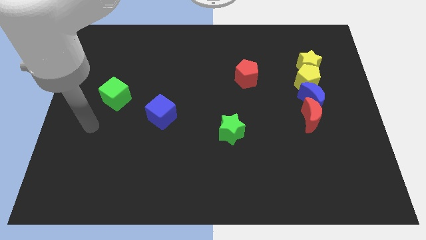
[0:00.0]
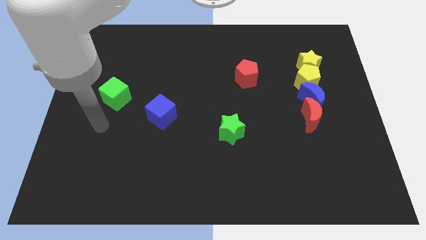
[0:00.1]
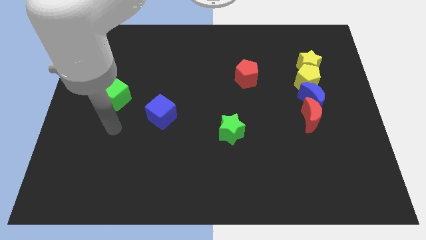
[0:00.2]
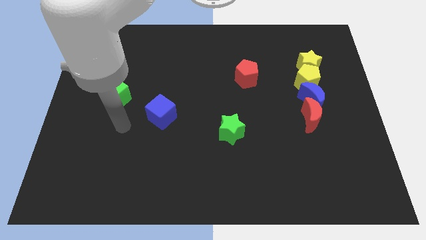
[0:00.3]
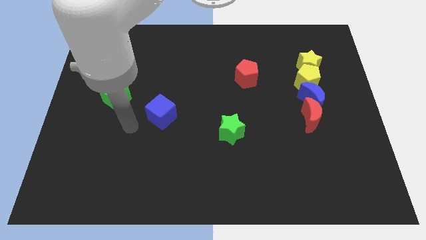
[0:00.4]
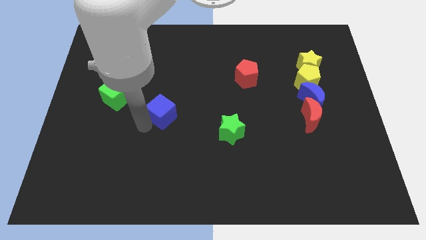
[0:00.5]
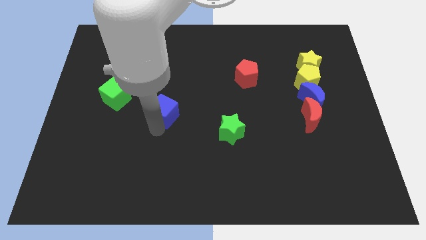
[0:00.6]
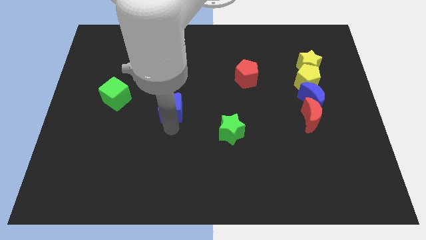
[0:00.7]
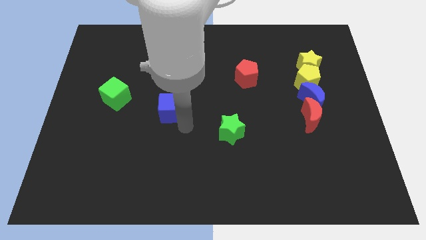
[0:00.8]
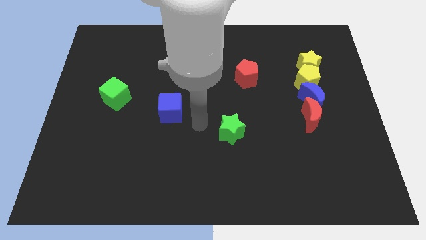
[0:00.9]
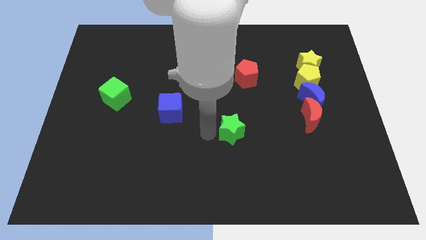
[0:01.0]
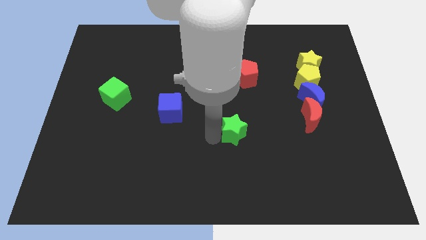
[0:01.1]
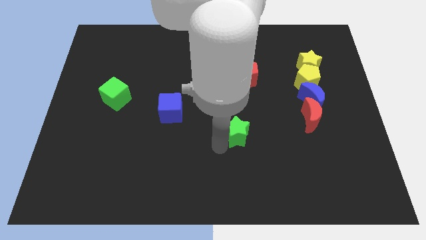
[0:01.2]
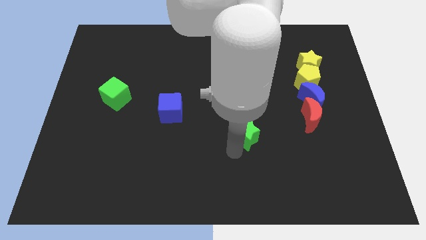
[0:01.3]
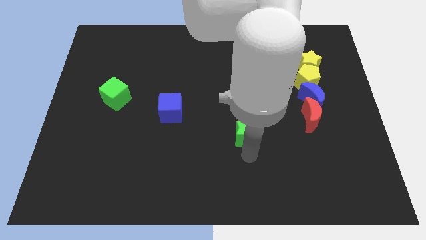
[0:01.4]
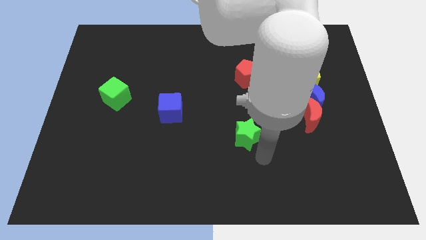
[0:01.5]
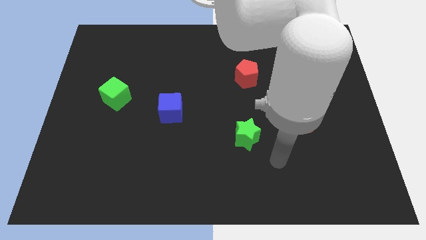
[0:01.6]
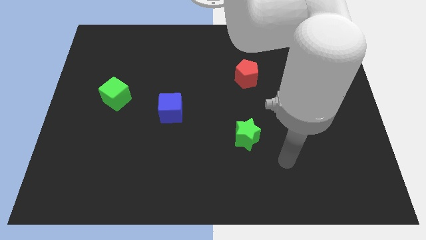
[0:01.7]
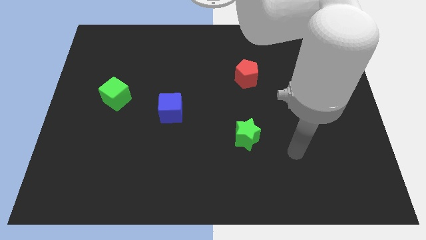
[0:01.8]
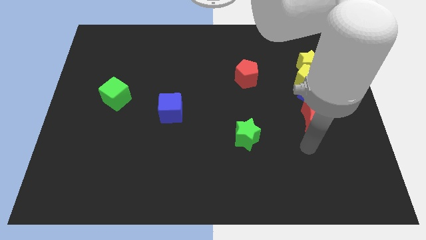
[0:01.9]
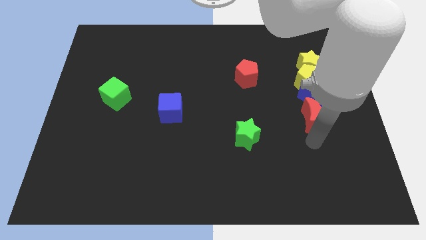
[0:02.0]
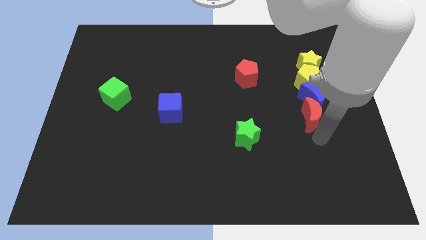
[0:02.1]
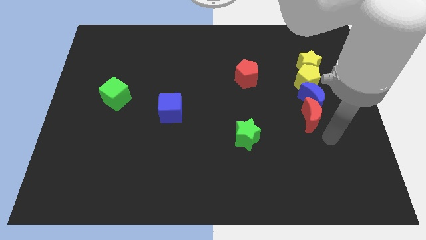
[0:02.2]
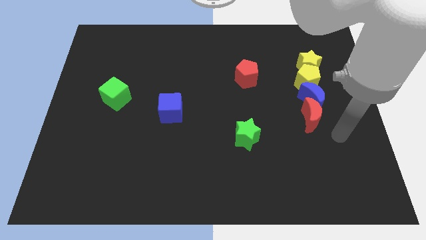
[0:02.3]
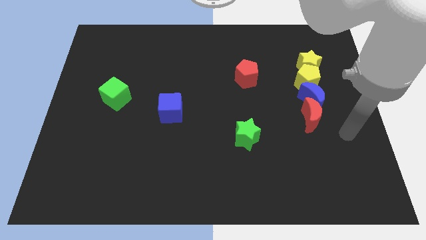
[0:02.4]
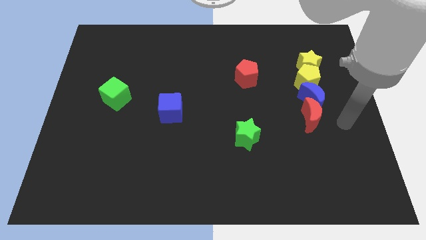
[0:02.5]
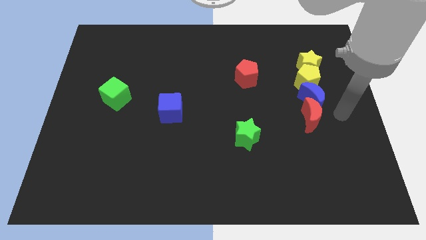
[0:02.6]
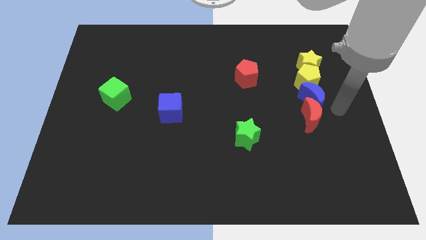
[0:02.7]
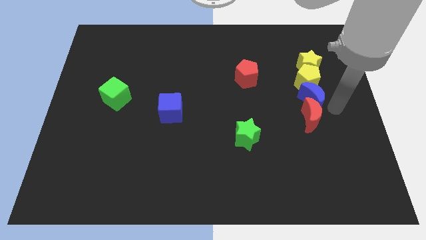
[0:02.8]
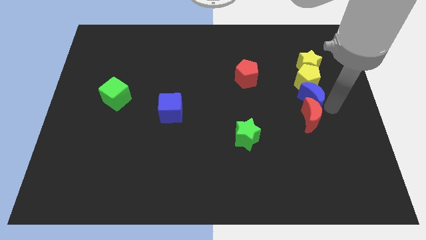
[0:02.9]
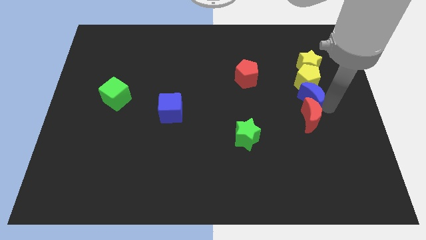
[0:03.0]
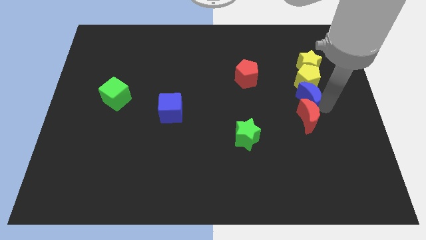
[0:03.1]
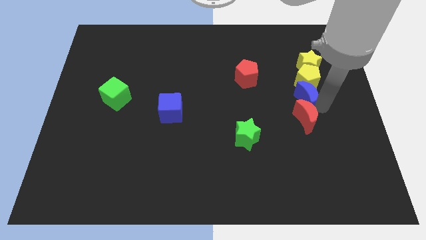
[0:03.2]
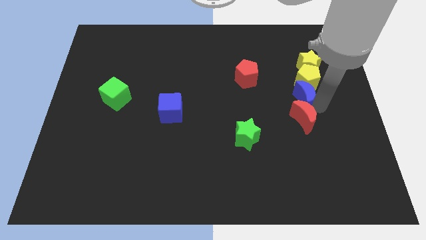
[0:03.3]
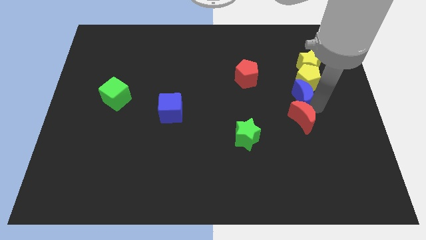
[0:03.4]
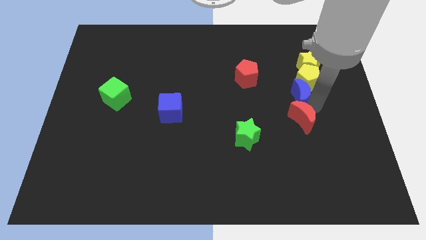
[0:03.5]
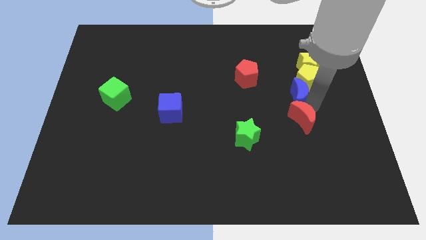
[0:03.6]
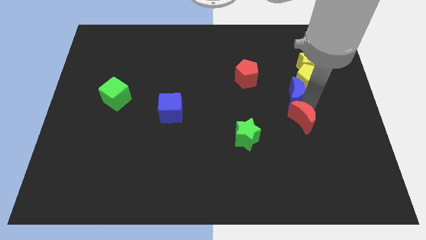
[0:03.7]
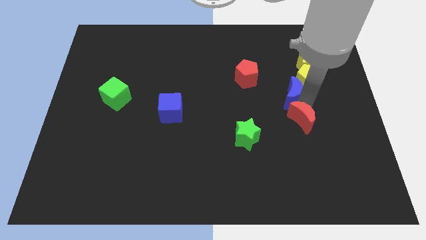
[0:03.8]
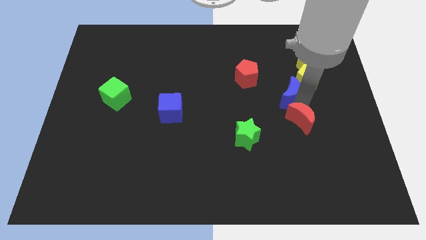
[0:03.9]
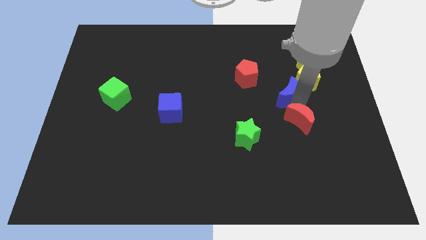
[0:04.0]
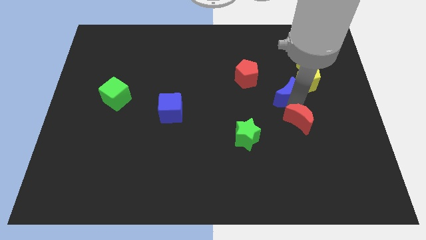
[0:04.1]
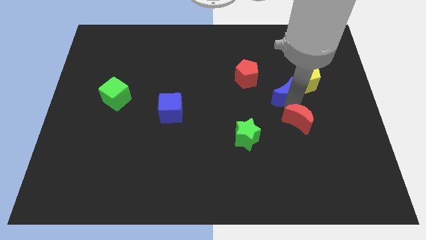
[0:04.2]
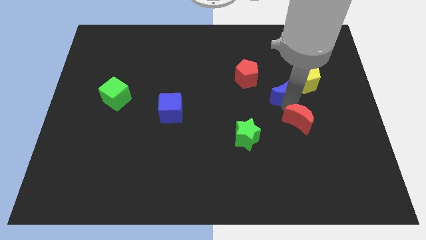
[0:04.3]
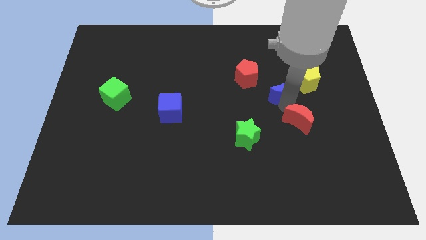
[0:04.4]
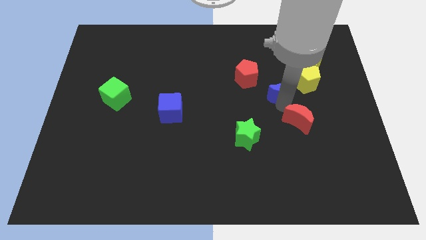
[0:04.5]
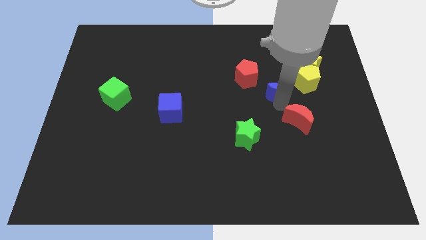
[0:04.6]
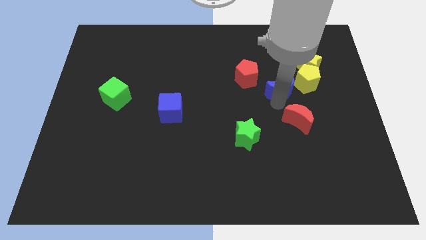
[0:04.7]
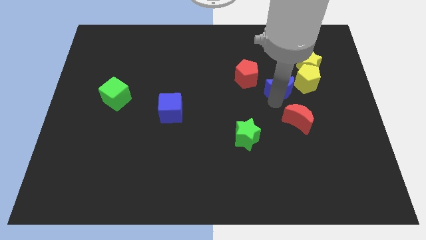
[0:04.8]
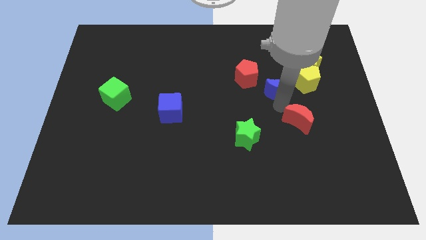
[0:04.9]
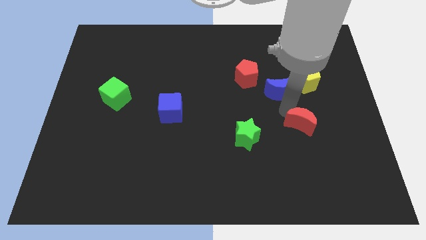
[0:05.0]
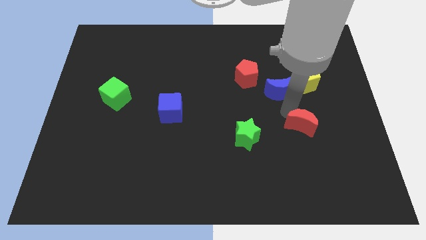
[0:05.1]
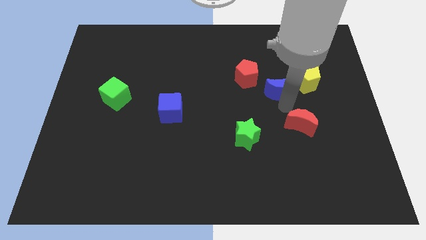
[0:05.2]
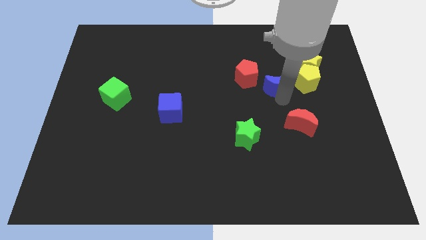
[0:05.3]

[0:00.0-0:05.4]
slide the blue moon upwards and to the left diagonally a bit

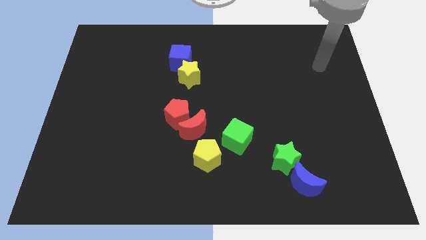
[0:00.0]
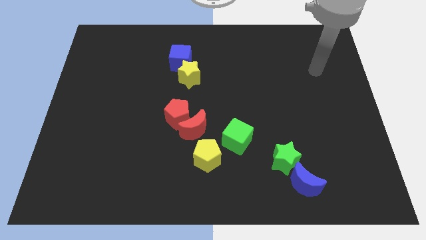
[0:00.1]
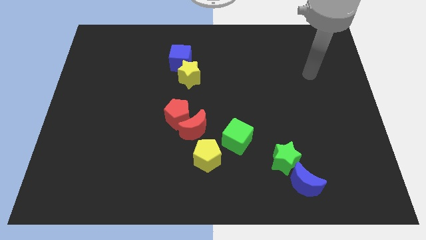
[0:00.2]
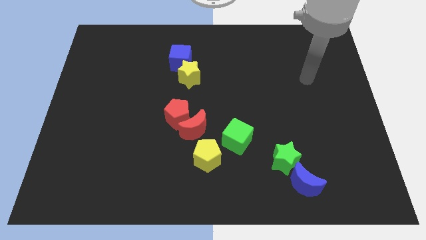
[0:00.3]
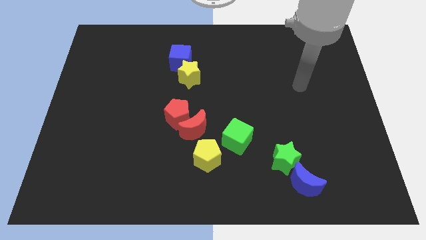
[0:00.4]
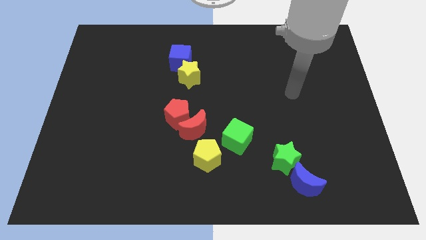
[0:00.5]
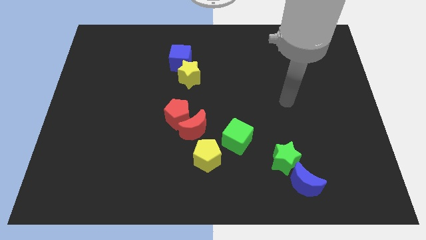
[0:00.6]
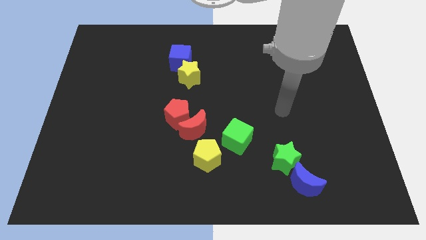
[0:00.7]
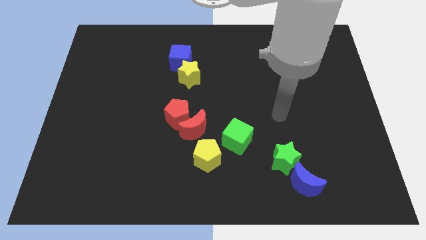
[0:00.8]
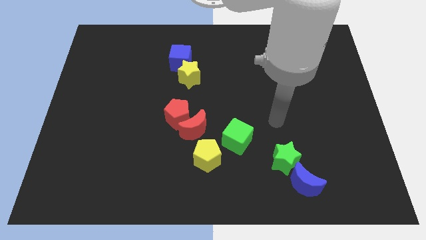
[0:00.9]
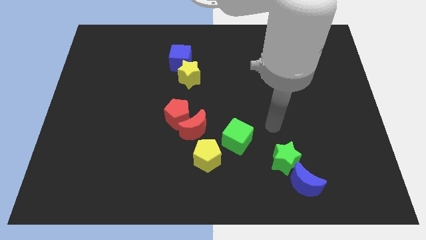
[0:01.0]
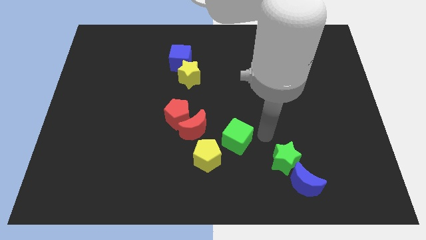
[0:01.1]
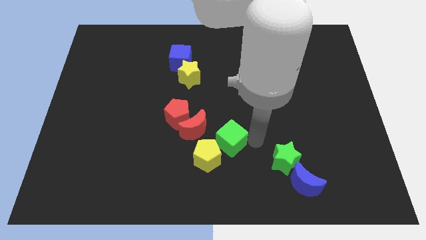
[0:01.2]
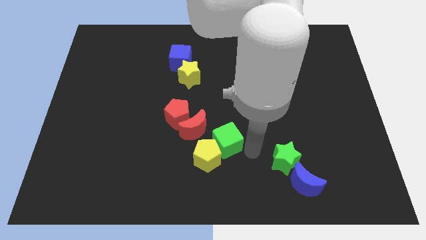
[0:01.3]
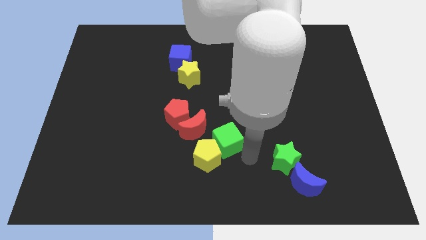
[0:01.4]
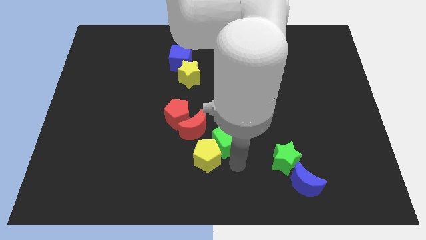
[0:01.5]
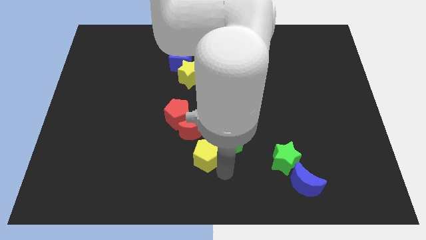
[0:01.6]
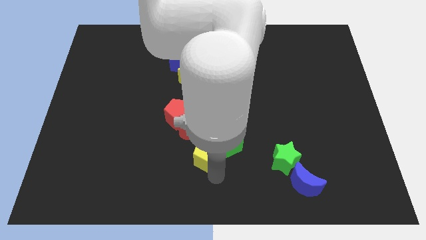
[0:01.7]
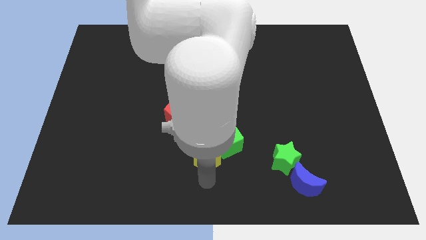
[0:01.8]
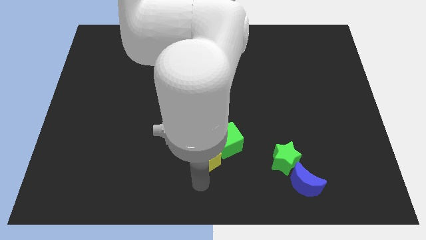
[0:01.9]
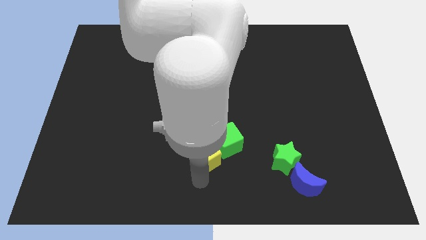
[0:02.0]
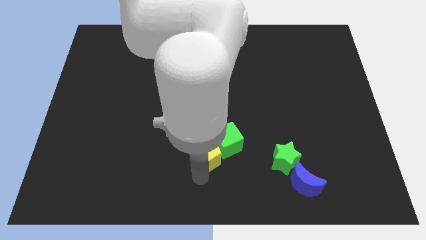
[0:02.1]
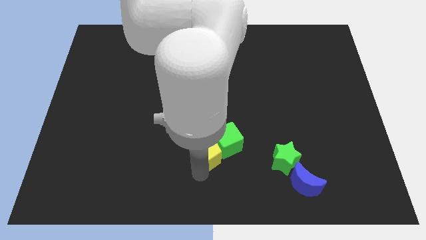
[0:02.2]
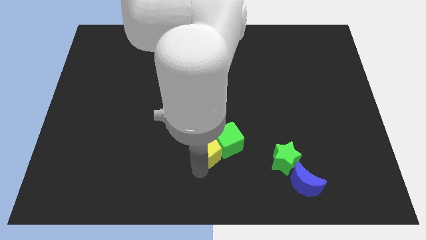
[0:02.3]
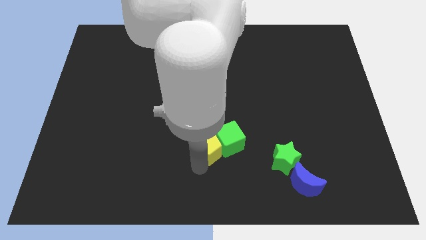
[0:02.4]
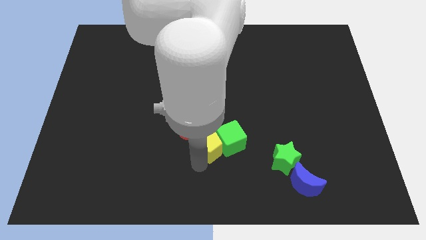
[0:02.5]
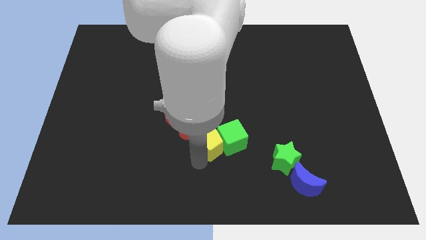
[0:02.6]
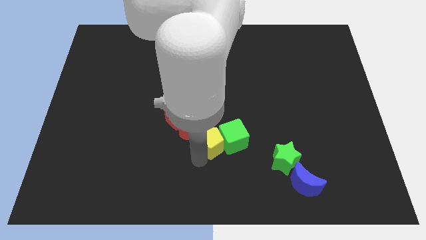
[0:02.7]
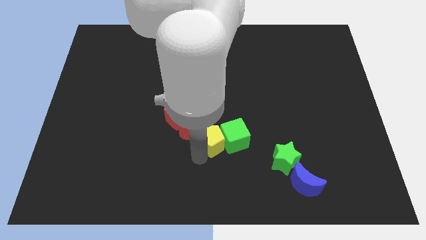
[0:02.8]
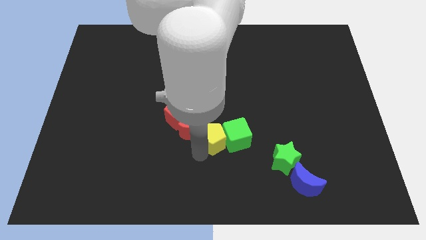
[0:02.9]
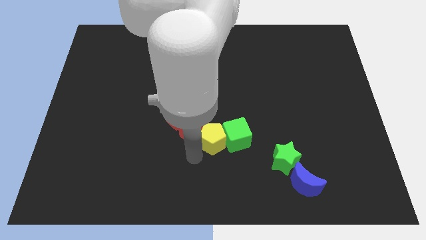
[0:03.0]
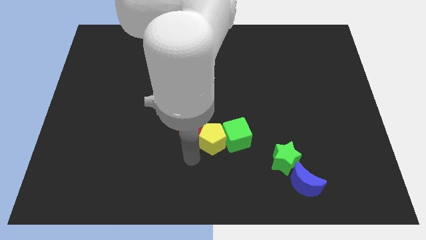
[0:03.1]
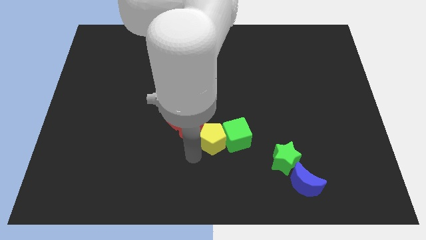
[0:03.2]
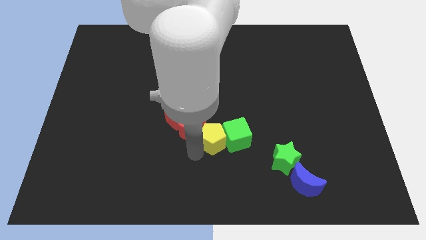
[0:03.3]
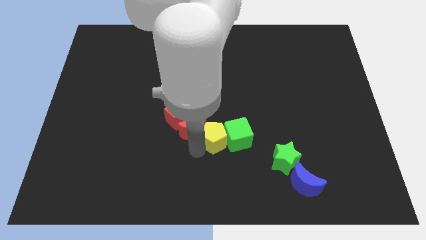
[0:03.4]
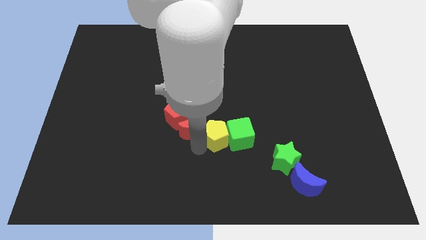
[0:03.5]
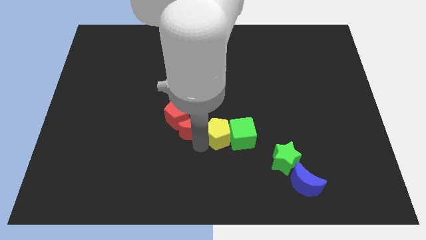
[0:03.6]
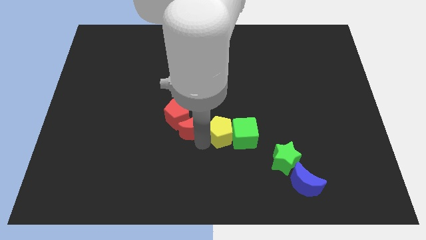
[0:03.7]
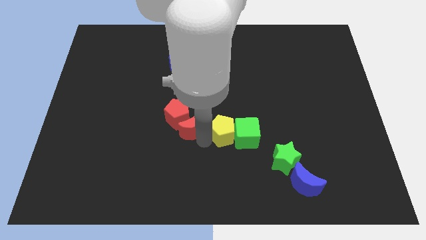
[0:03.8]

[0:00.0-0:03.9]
move the yellow pentagon somewhat up and to the right diagonally
